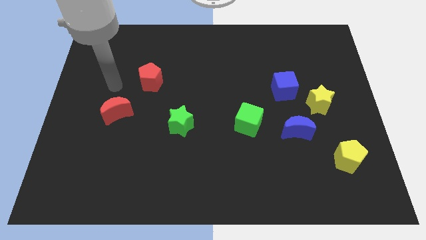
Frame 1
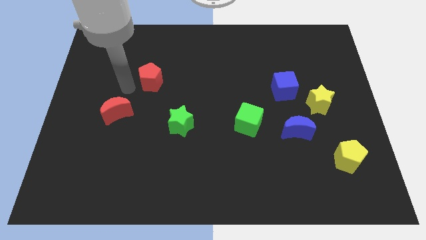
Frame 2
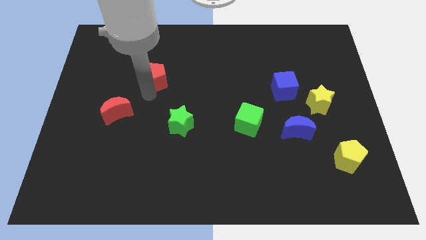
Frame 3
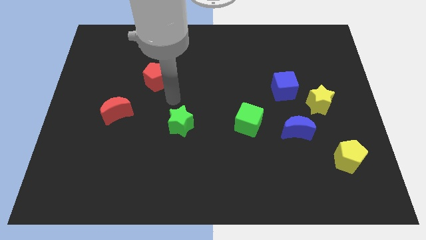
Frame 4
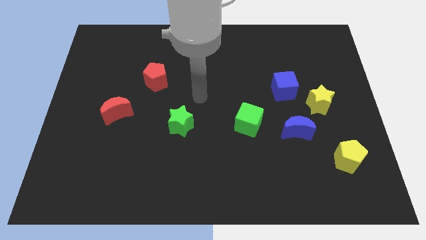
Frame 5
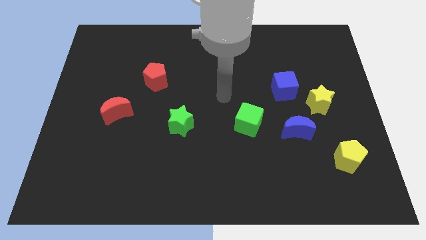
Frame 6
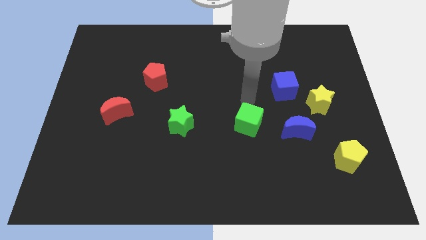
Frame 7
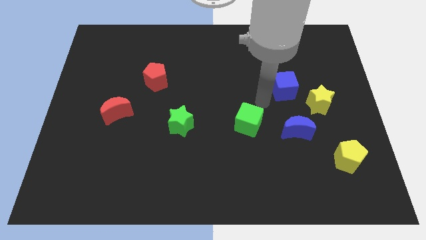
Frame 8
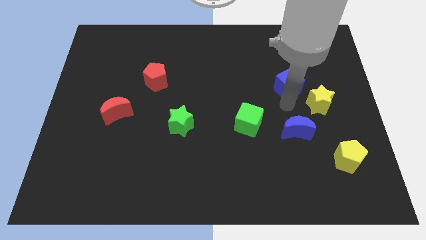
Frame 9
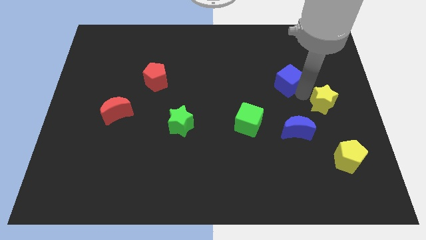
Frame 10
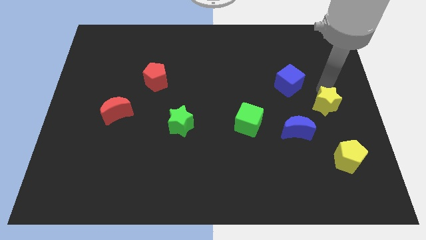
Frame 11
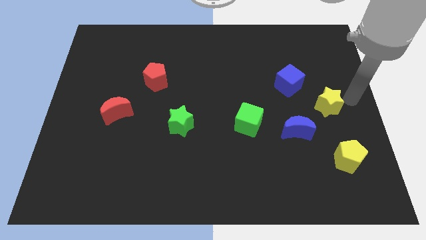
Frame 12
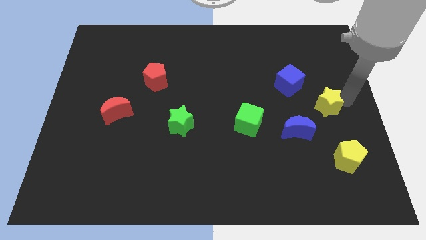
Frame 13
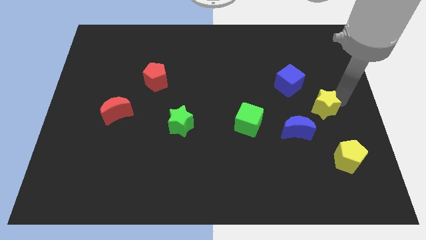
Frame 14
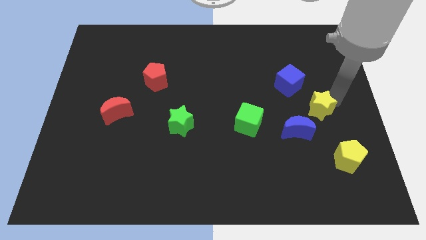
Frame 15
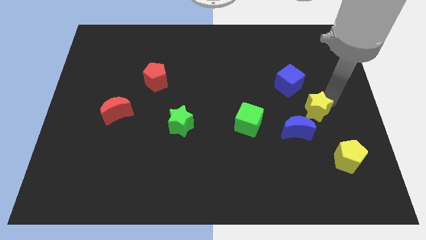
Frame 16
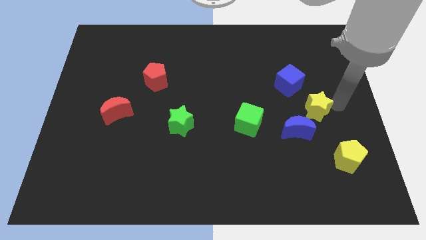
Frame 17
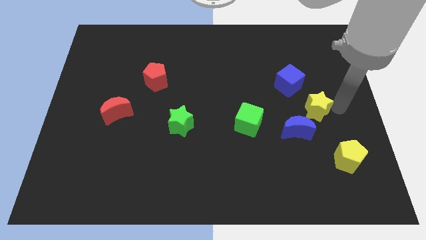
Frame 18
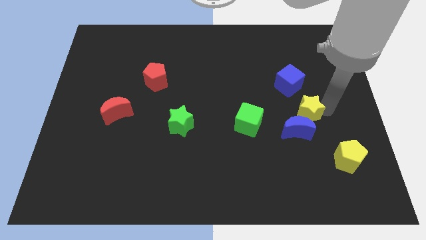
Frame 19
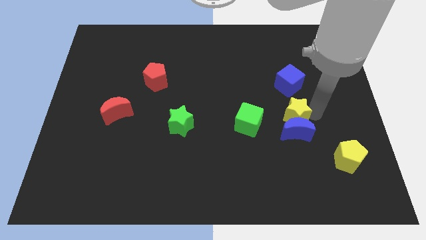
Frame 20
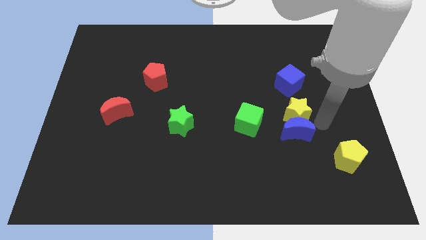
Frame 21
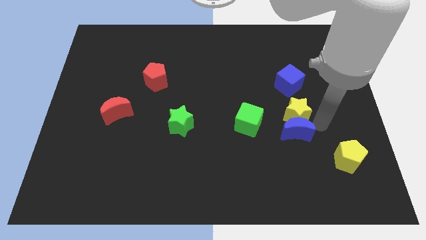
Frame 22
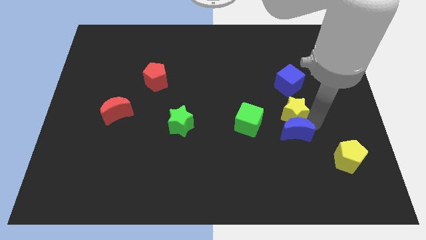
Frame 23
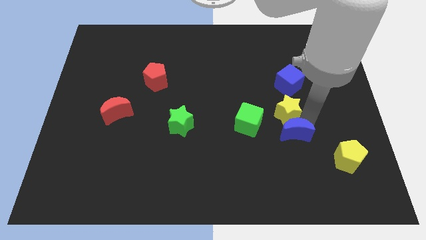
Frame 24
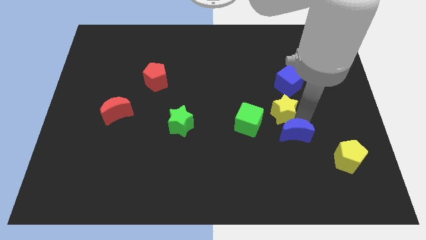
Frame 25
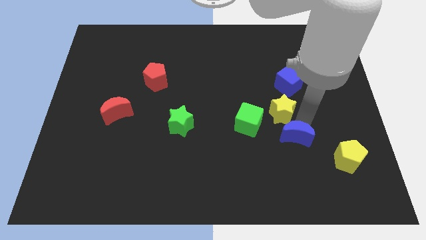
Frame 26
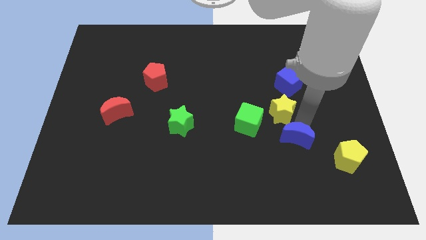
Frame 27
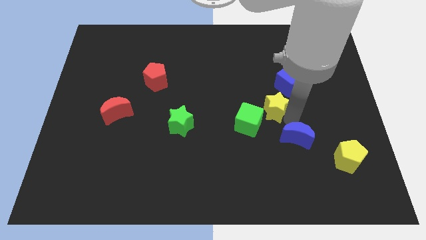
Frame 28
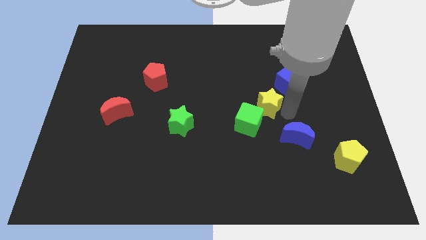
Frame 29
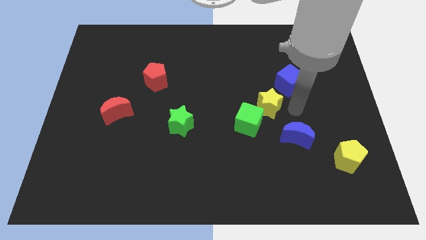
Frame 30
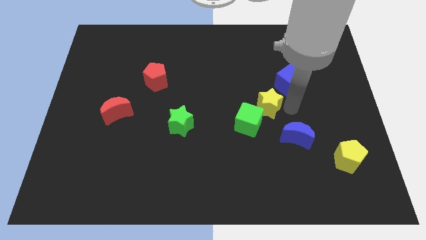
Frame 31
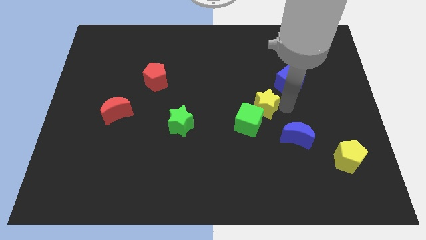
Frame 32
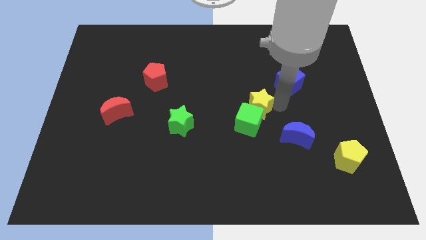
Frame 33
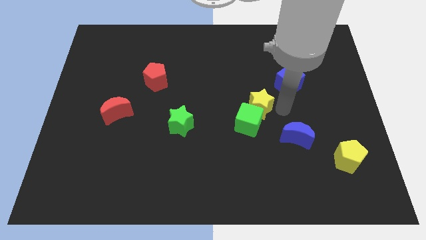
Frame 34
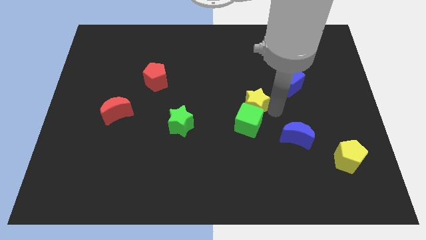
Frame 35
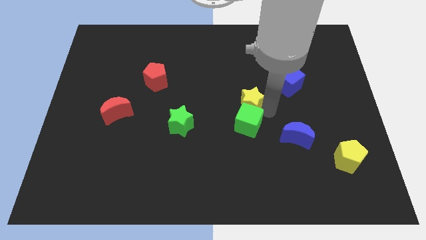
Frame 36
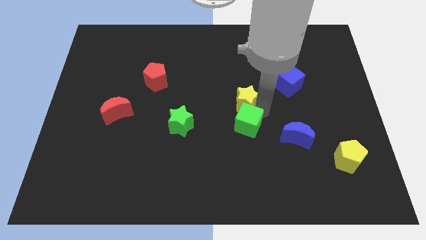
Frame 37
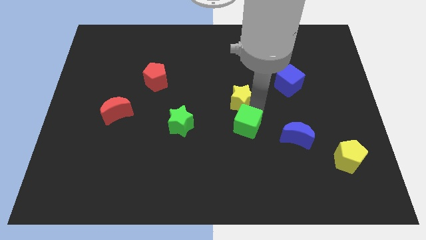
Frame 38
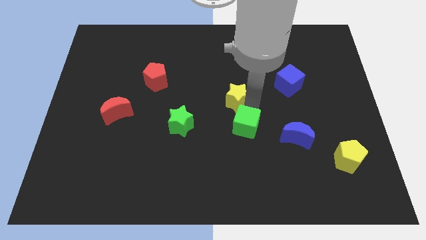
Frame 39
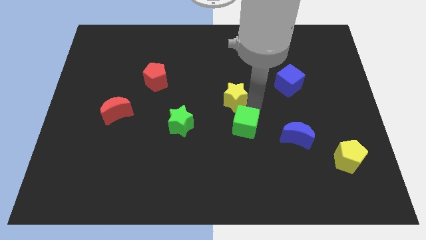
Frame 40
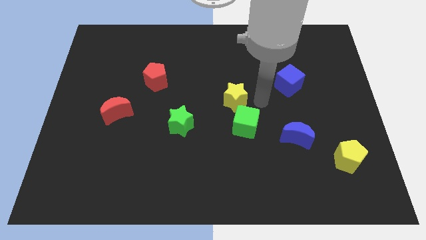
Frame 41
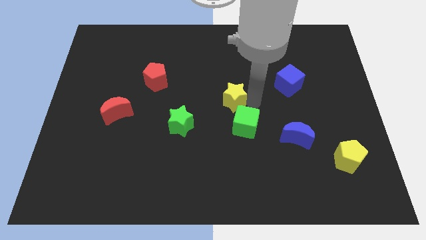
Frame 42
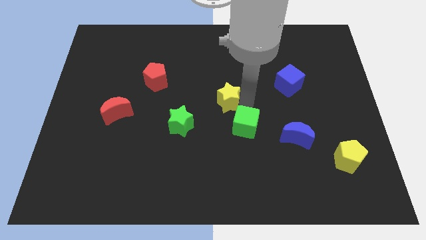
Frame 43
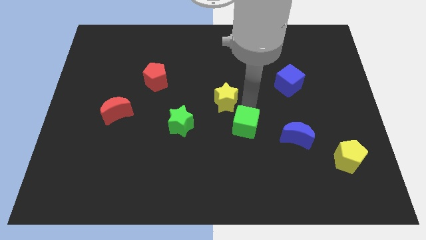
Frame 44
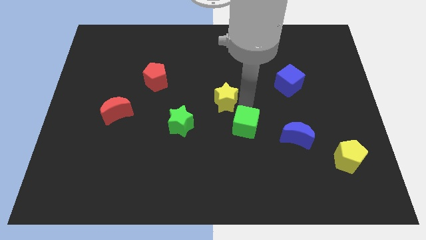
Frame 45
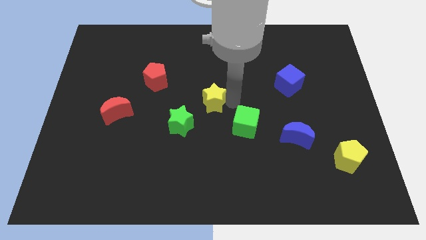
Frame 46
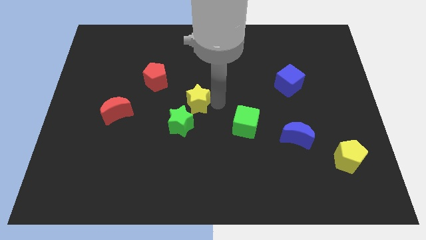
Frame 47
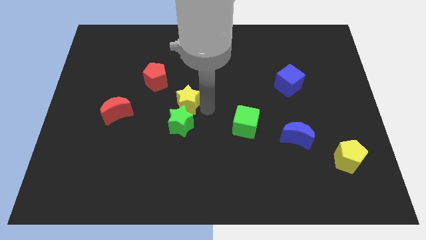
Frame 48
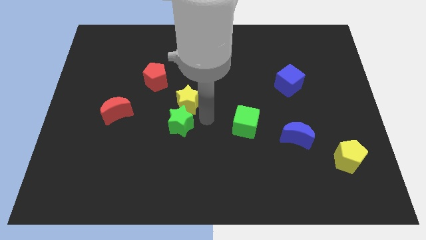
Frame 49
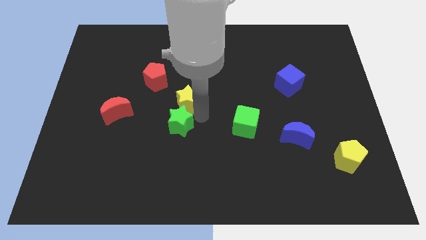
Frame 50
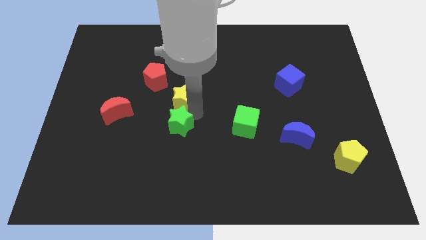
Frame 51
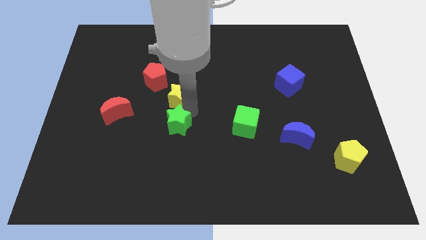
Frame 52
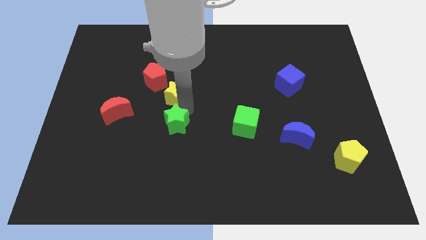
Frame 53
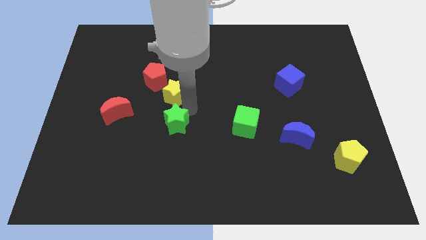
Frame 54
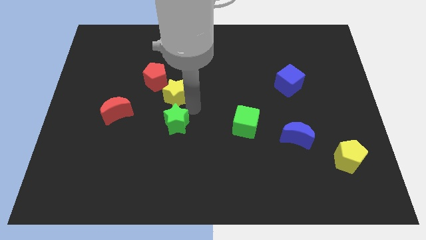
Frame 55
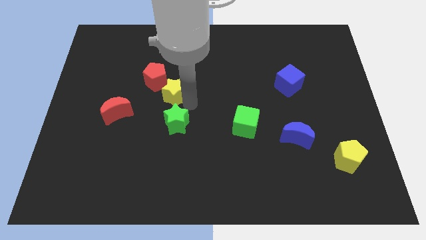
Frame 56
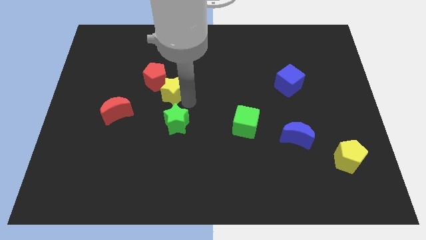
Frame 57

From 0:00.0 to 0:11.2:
slide the yellow star to the red pentagon
